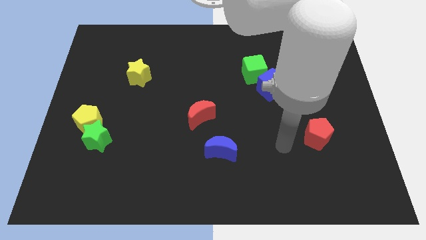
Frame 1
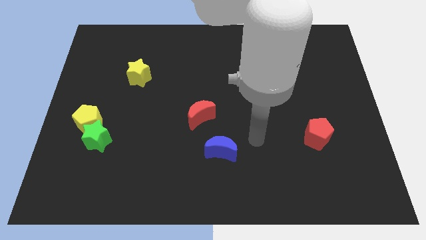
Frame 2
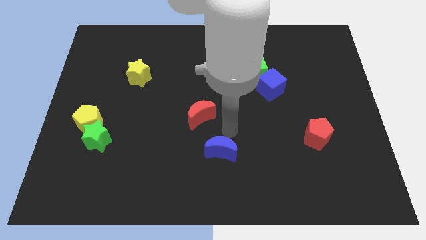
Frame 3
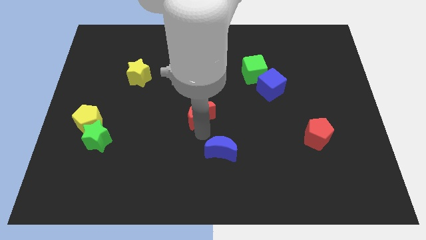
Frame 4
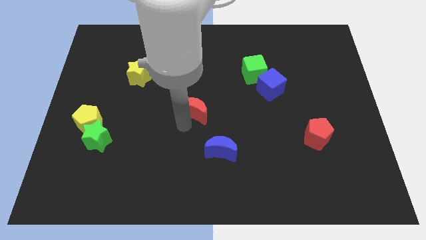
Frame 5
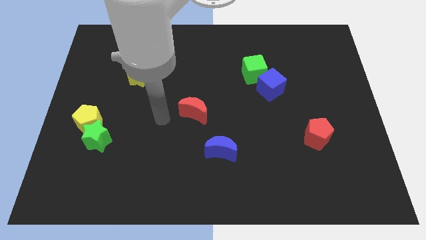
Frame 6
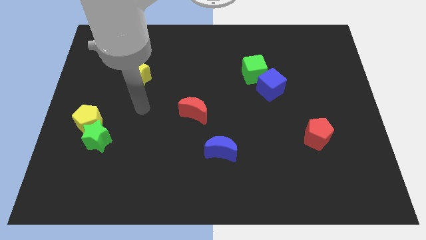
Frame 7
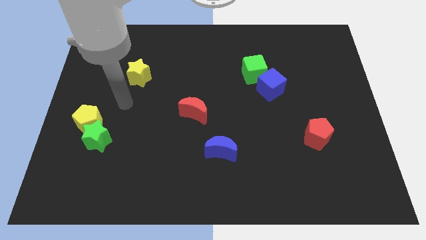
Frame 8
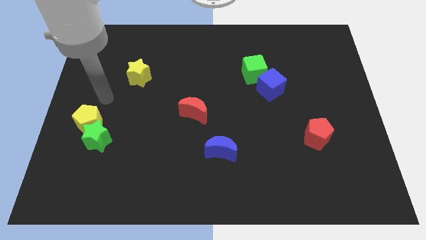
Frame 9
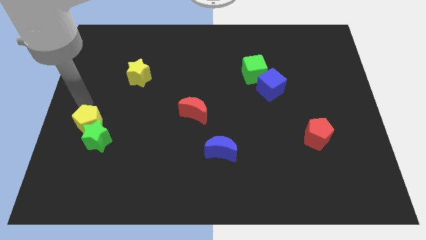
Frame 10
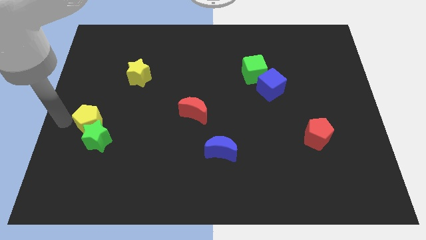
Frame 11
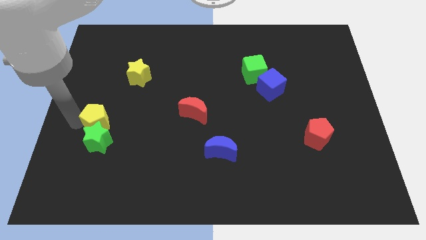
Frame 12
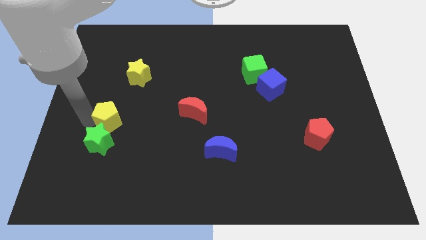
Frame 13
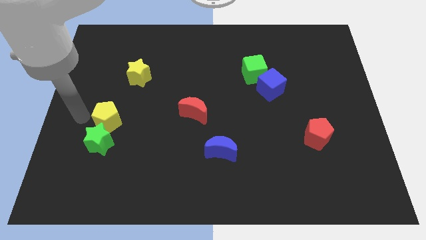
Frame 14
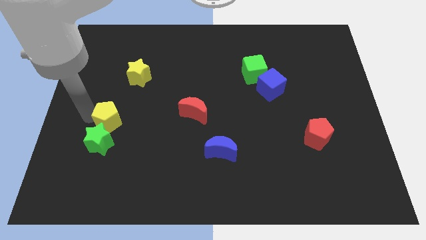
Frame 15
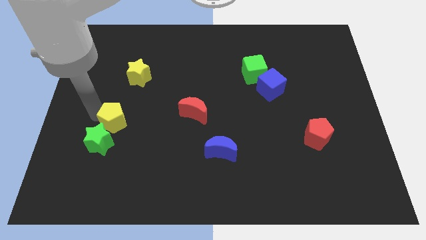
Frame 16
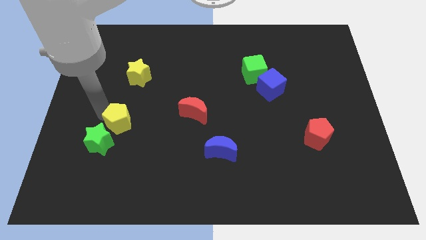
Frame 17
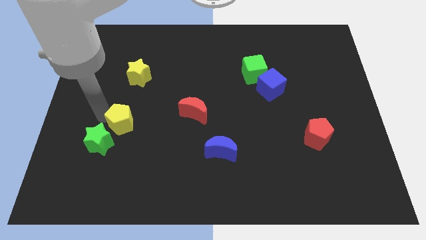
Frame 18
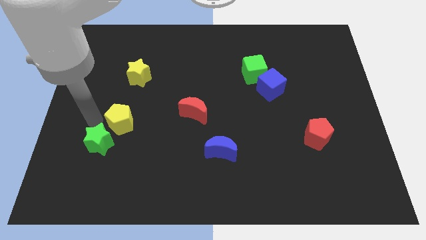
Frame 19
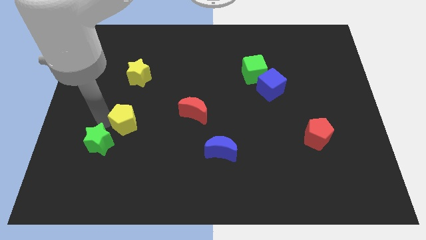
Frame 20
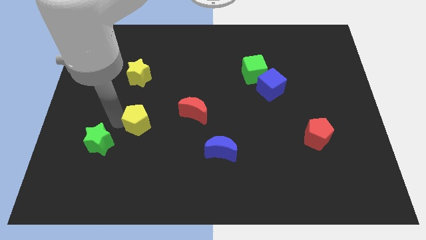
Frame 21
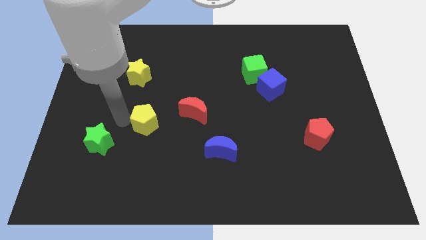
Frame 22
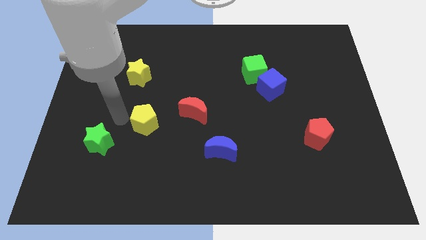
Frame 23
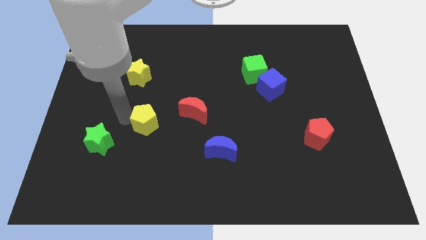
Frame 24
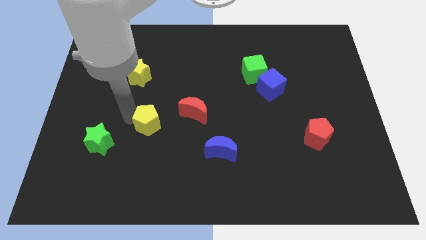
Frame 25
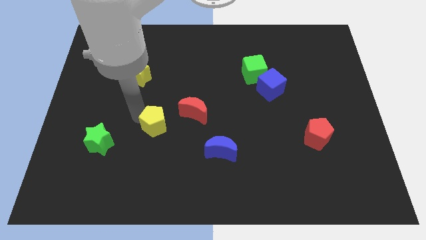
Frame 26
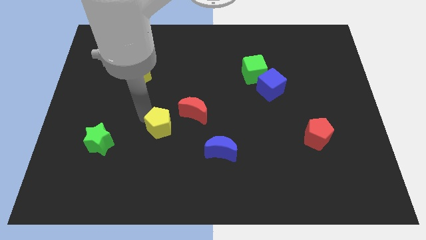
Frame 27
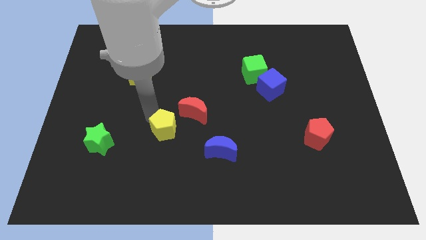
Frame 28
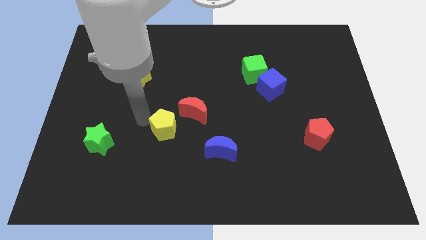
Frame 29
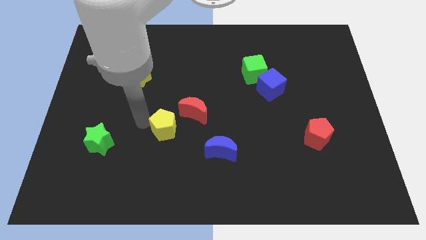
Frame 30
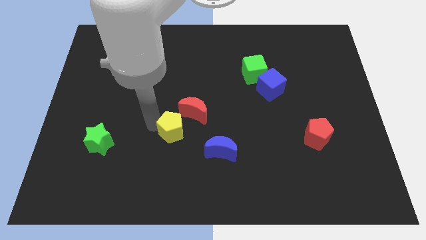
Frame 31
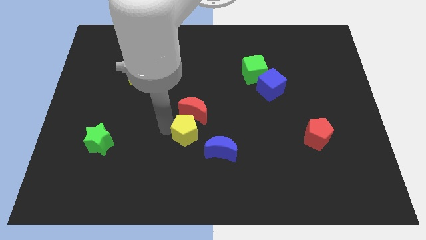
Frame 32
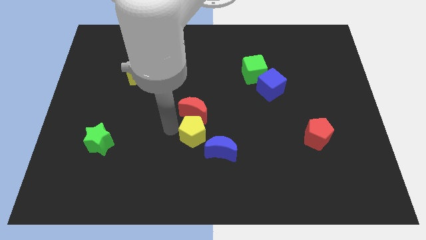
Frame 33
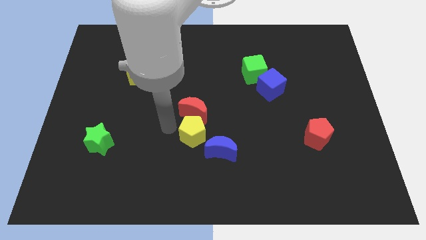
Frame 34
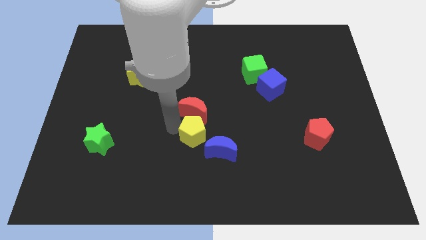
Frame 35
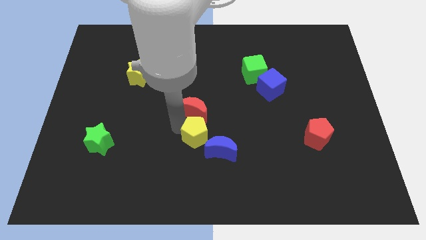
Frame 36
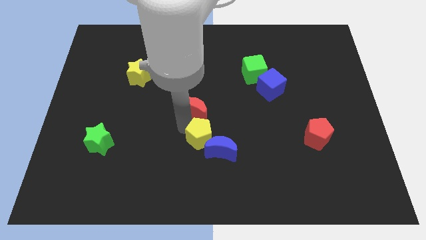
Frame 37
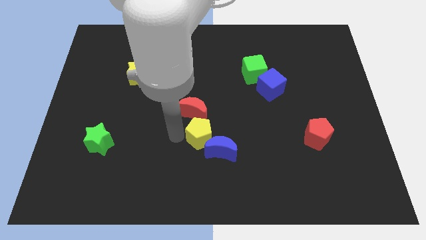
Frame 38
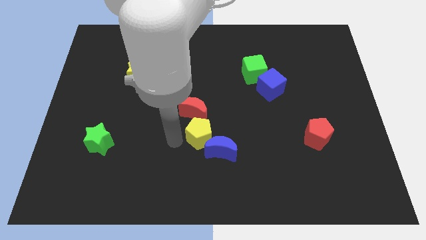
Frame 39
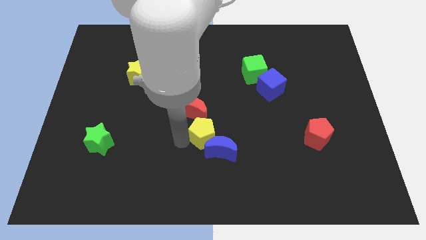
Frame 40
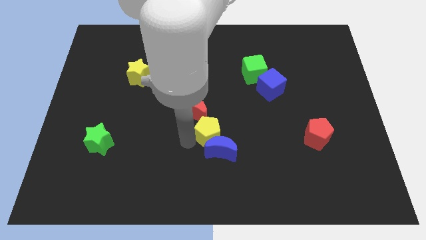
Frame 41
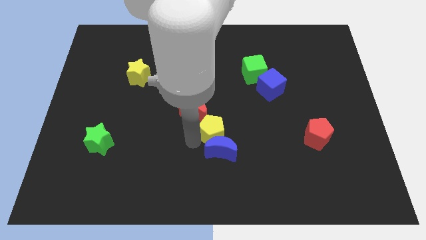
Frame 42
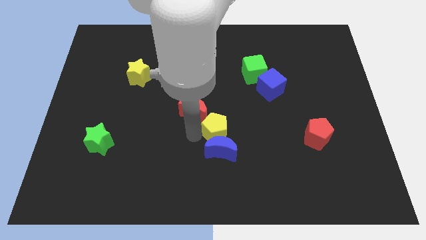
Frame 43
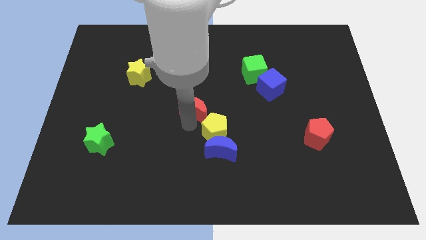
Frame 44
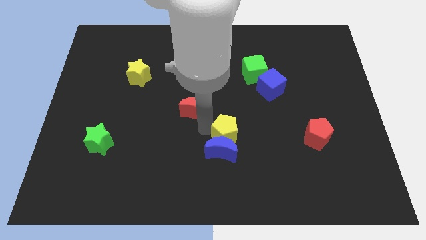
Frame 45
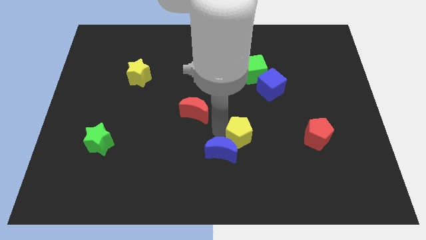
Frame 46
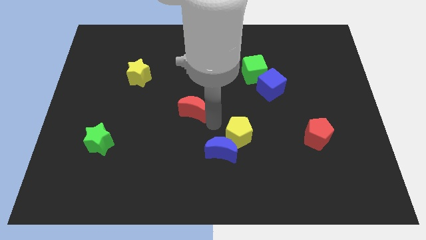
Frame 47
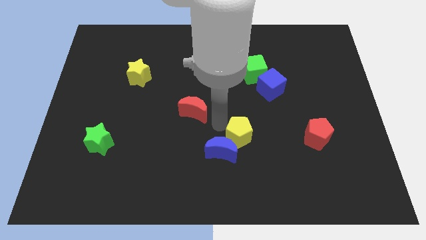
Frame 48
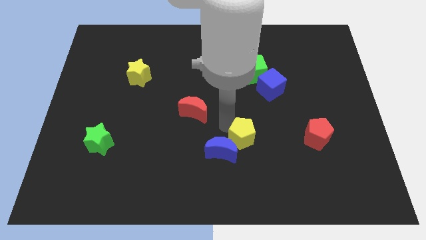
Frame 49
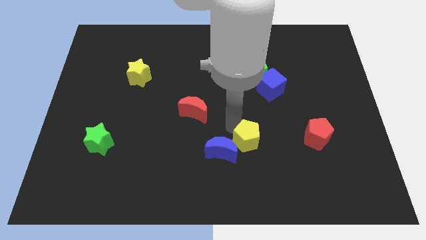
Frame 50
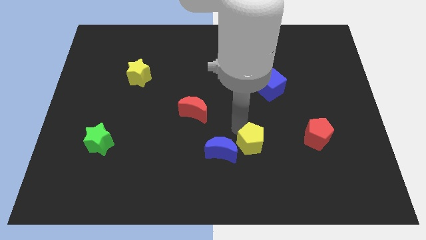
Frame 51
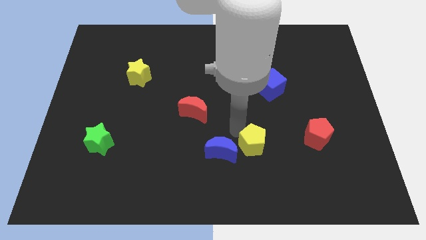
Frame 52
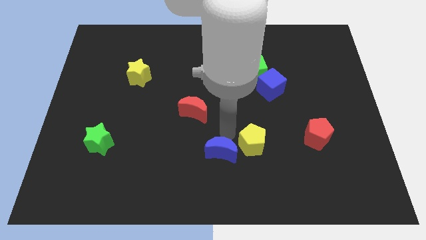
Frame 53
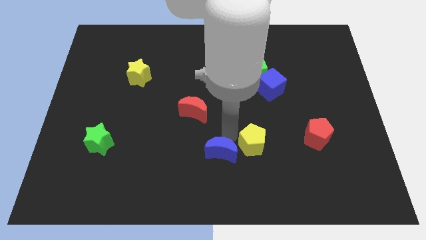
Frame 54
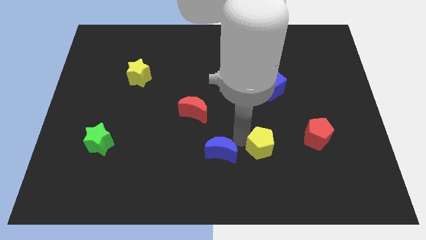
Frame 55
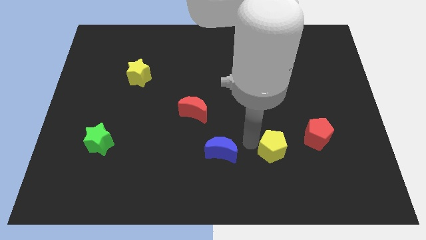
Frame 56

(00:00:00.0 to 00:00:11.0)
put the yellow pentagon to the bottom left side of the red pentagon

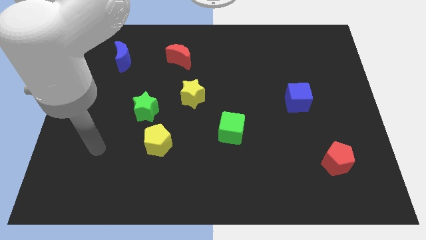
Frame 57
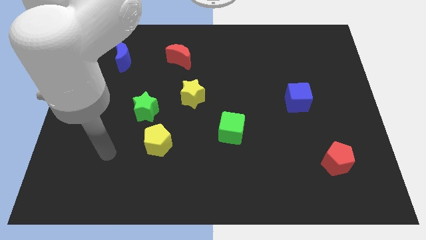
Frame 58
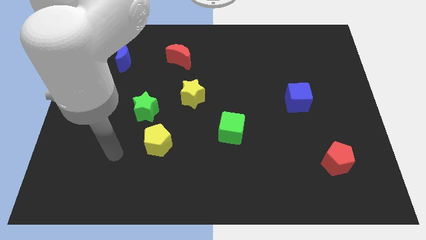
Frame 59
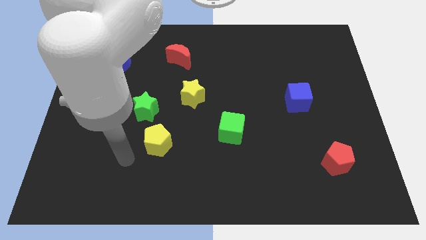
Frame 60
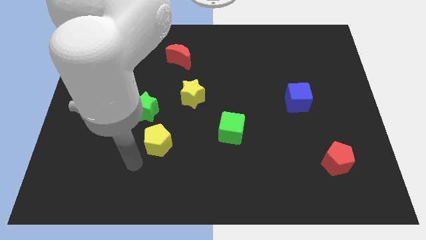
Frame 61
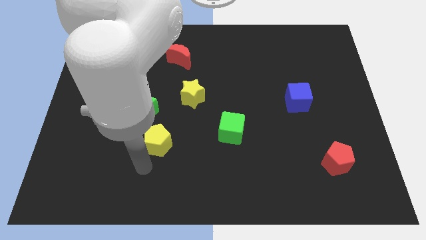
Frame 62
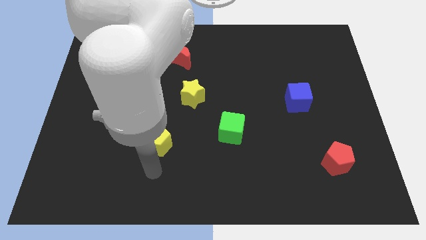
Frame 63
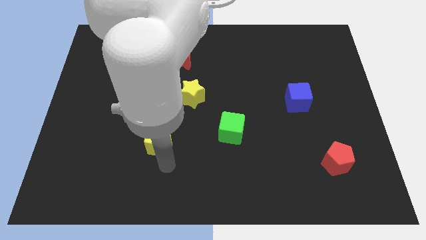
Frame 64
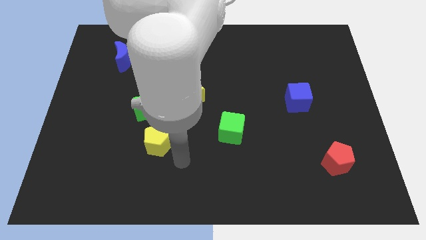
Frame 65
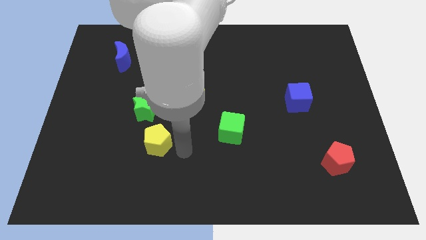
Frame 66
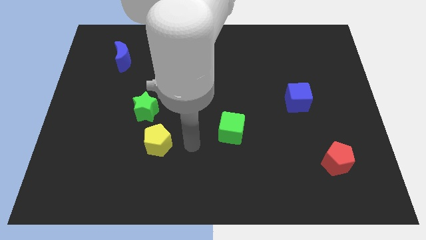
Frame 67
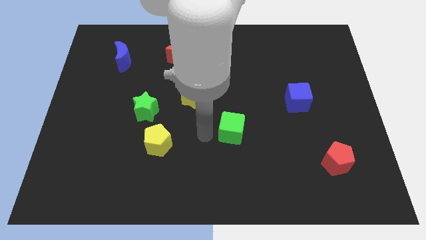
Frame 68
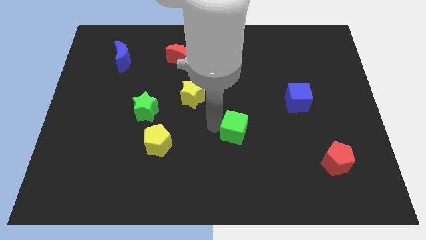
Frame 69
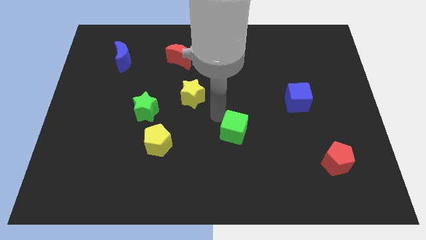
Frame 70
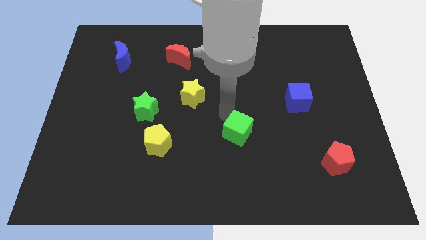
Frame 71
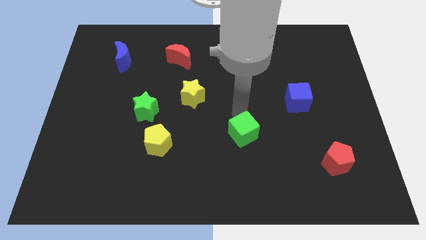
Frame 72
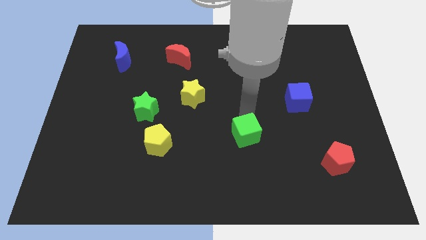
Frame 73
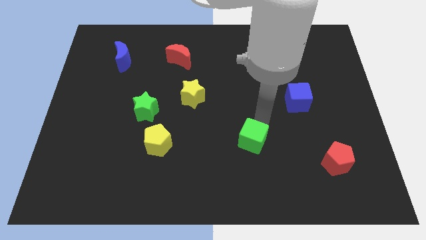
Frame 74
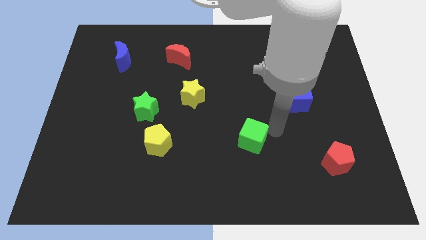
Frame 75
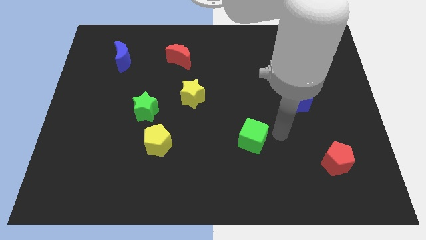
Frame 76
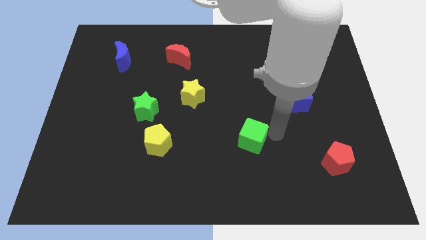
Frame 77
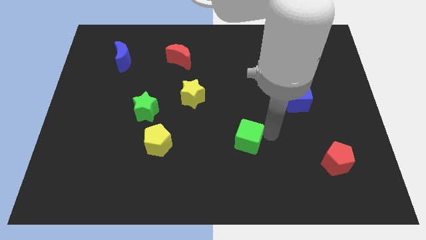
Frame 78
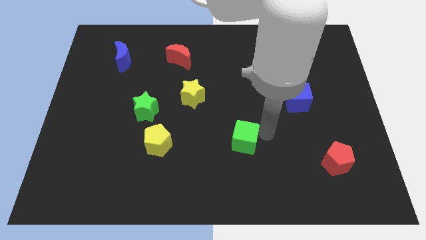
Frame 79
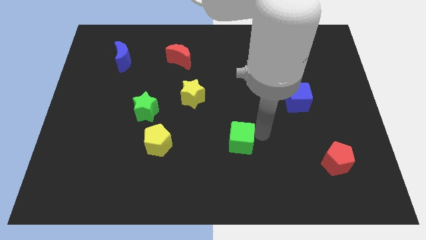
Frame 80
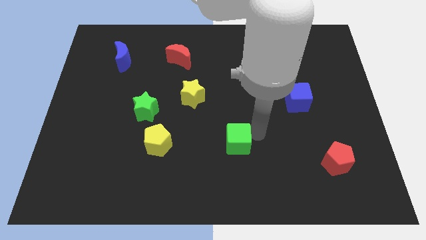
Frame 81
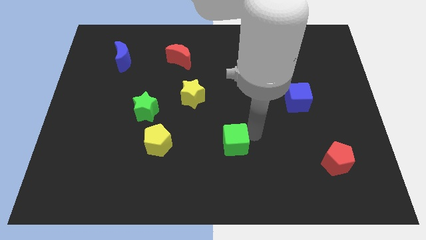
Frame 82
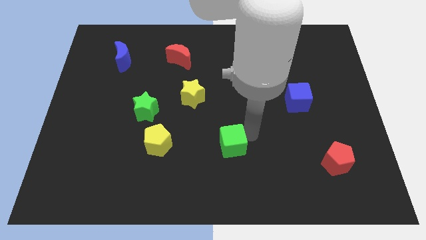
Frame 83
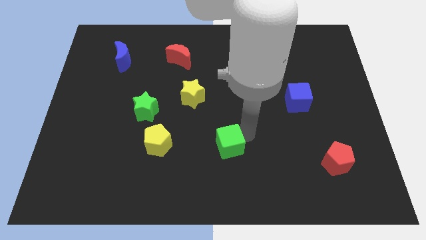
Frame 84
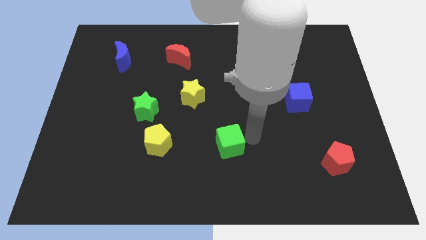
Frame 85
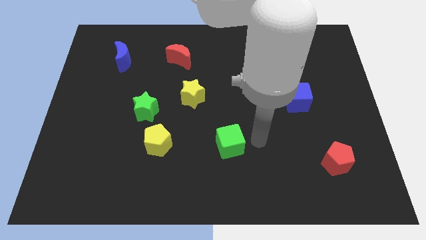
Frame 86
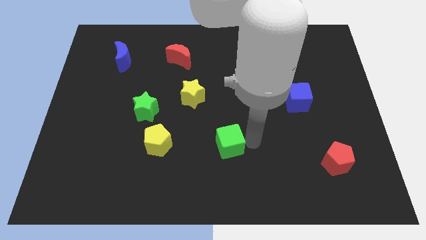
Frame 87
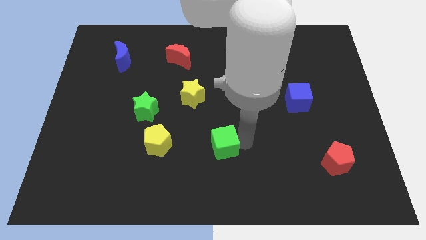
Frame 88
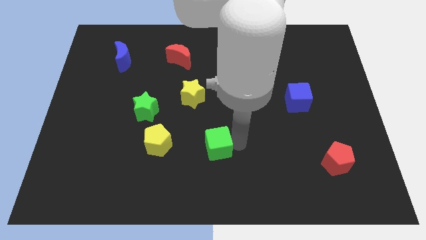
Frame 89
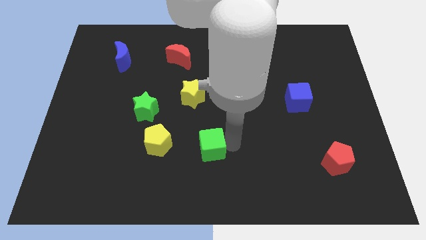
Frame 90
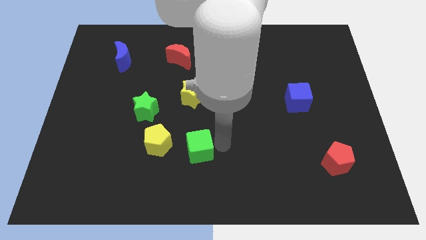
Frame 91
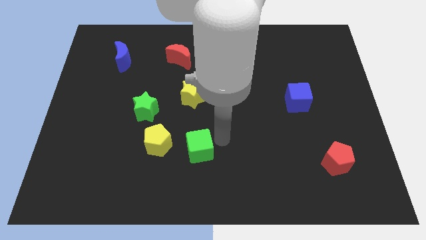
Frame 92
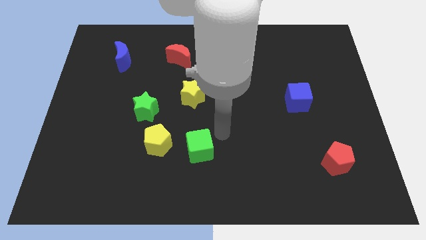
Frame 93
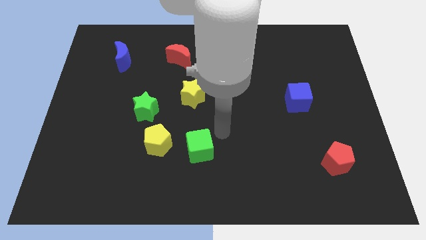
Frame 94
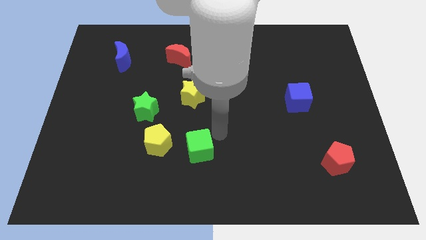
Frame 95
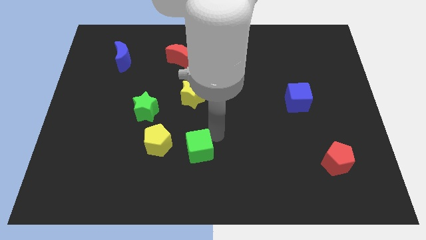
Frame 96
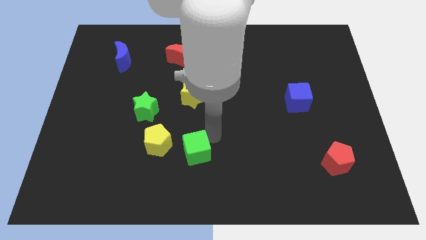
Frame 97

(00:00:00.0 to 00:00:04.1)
push the green cube to the bottom right side of the yellow pentagon
